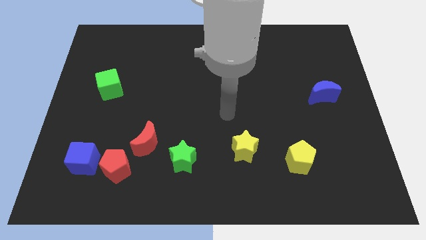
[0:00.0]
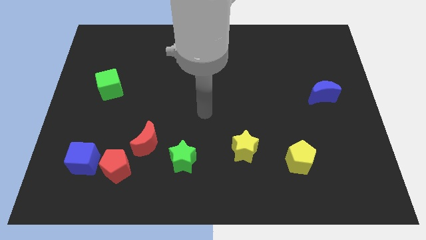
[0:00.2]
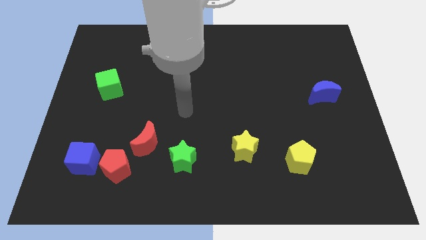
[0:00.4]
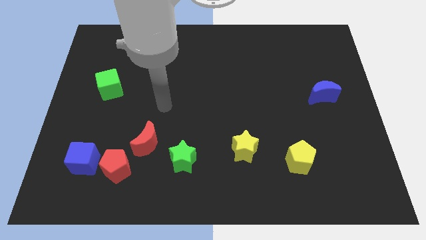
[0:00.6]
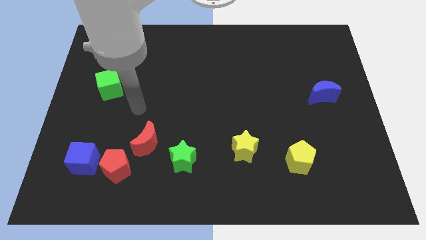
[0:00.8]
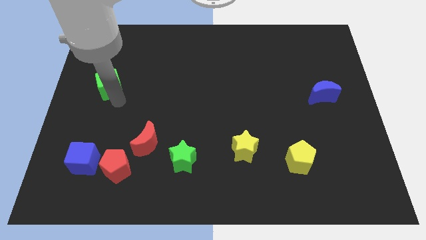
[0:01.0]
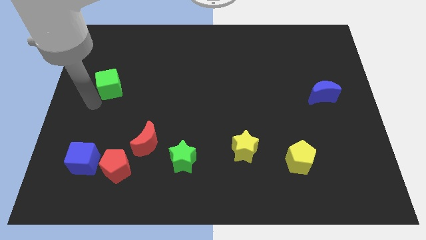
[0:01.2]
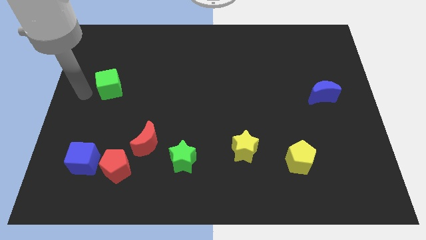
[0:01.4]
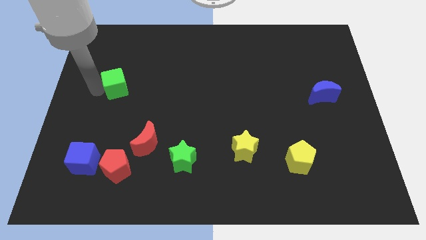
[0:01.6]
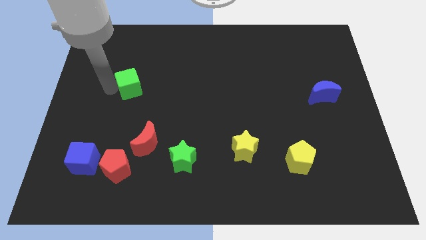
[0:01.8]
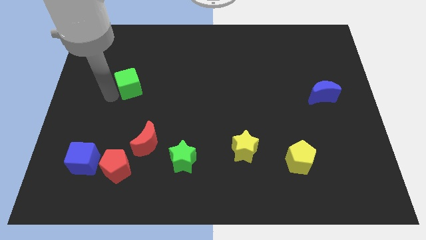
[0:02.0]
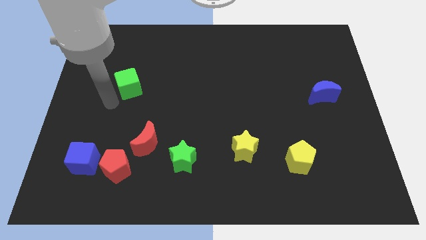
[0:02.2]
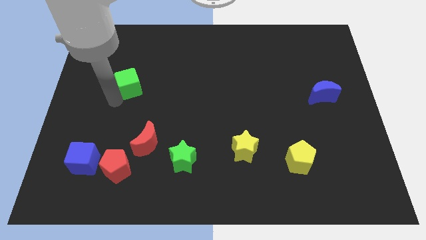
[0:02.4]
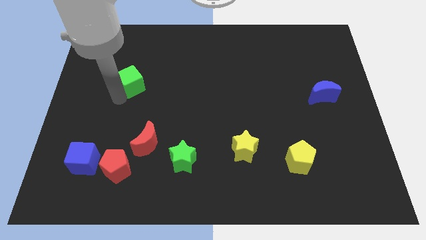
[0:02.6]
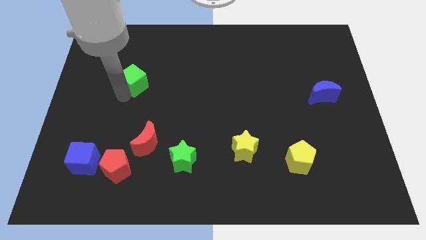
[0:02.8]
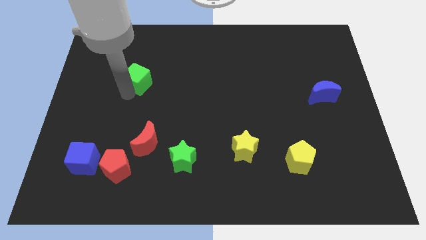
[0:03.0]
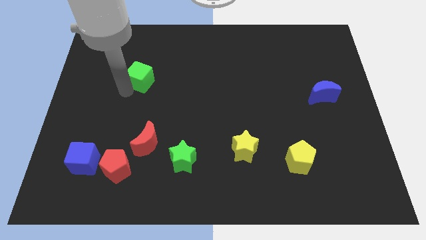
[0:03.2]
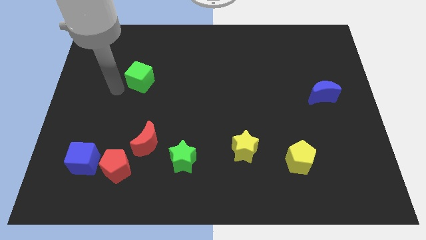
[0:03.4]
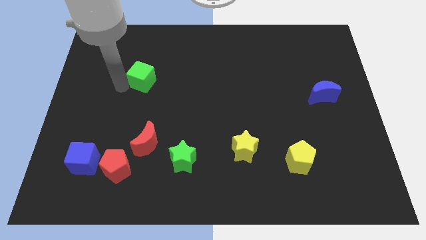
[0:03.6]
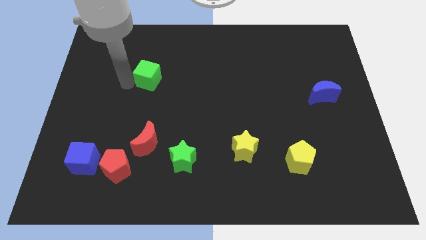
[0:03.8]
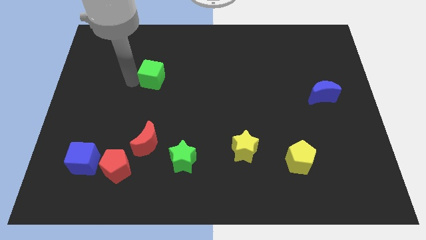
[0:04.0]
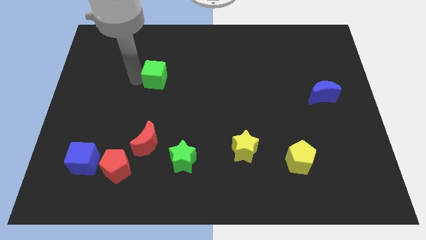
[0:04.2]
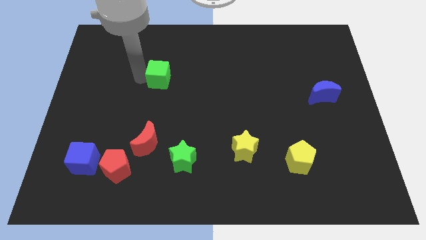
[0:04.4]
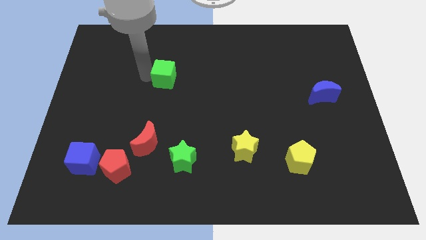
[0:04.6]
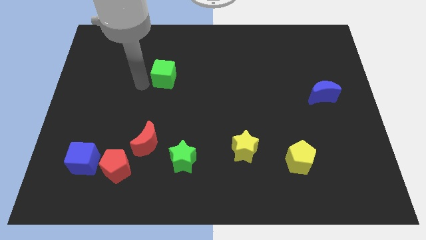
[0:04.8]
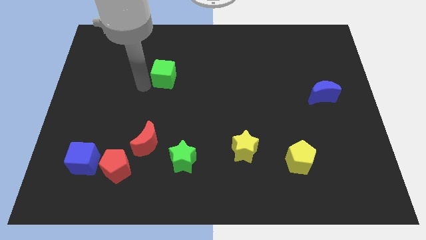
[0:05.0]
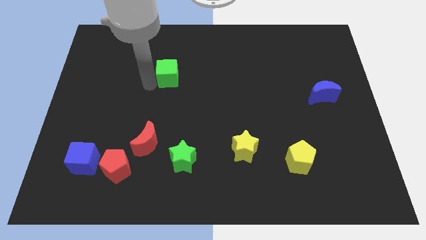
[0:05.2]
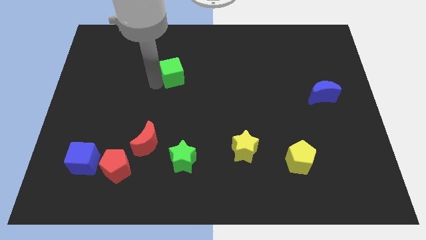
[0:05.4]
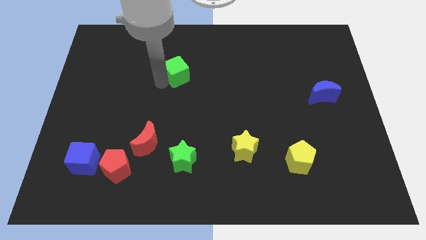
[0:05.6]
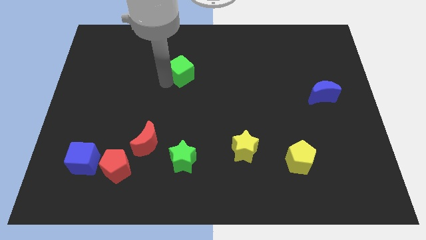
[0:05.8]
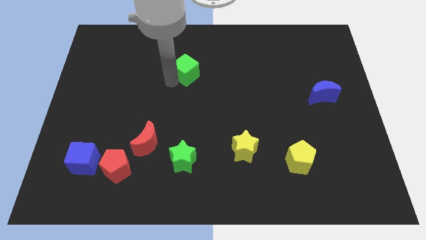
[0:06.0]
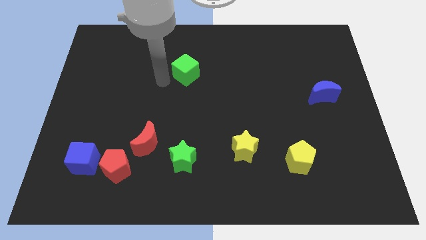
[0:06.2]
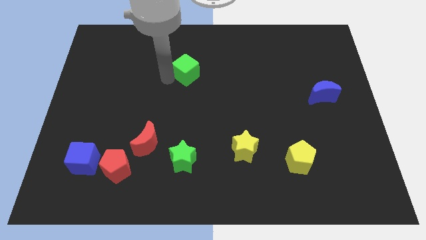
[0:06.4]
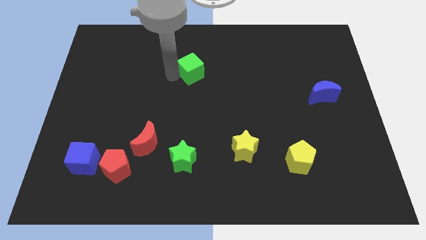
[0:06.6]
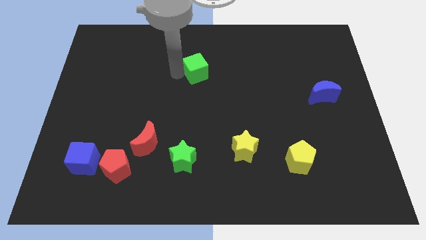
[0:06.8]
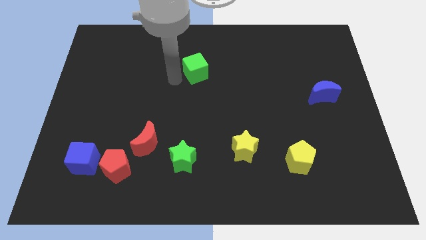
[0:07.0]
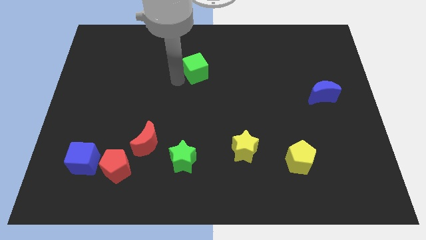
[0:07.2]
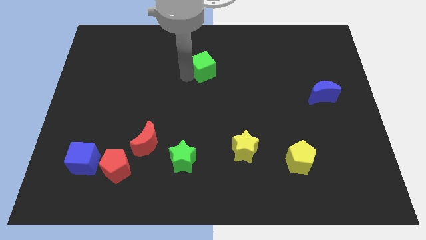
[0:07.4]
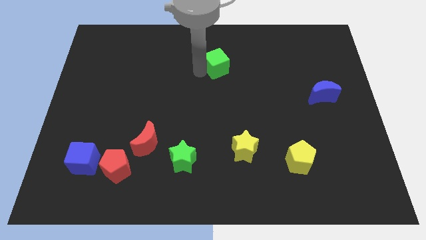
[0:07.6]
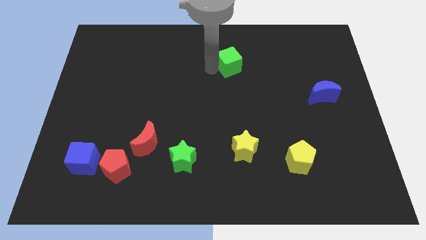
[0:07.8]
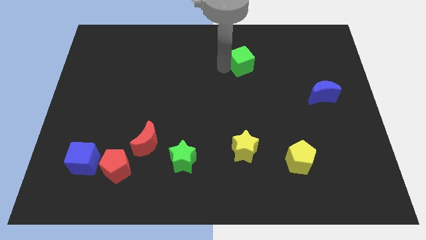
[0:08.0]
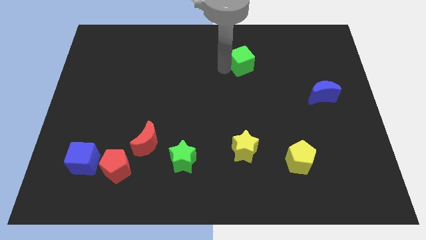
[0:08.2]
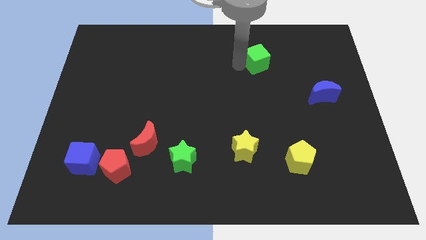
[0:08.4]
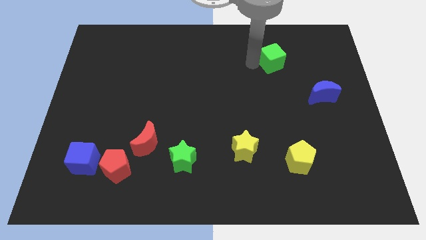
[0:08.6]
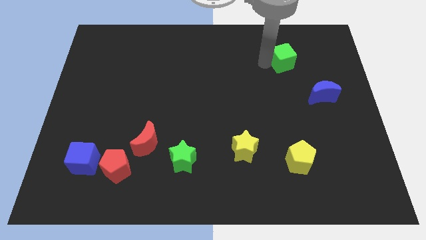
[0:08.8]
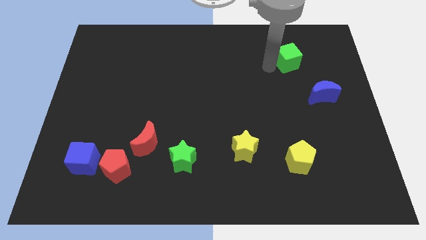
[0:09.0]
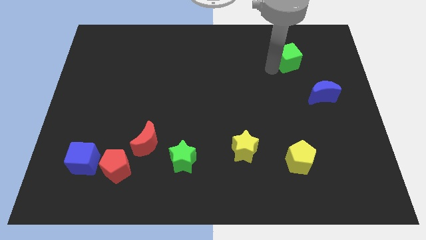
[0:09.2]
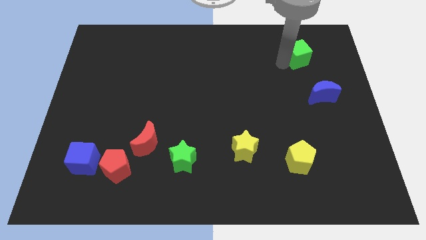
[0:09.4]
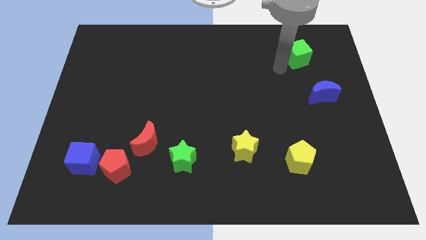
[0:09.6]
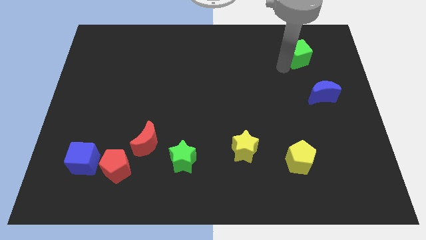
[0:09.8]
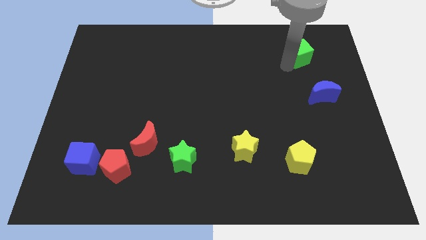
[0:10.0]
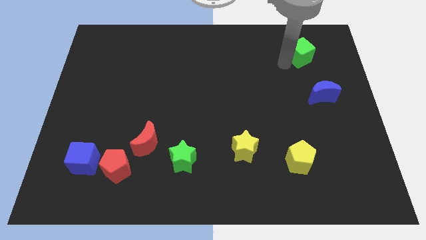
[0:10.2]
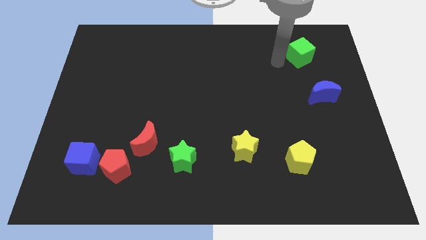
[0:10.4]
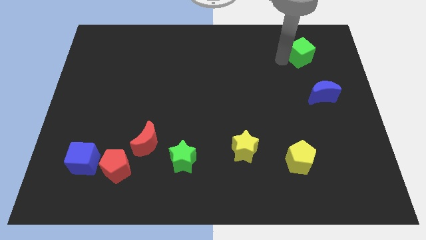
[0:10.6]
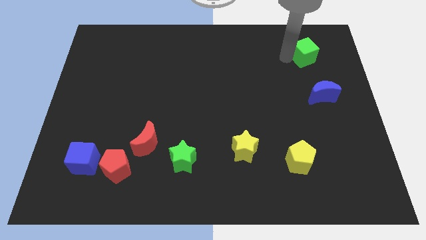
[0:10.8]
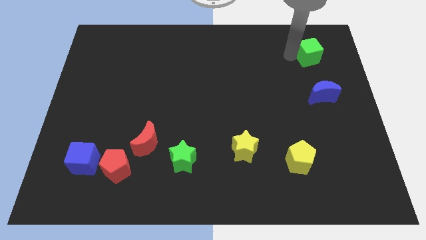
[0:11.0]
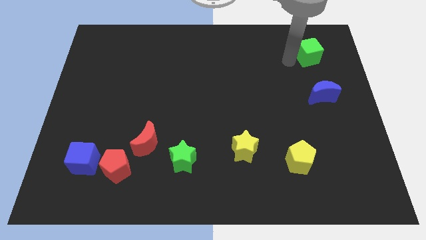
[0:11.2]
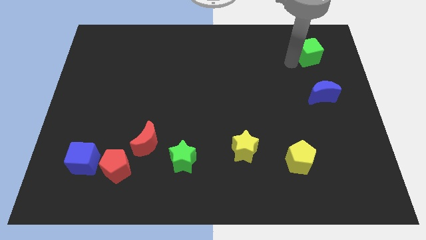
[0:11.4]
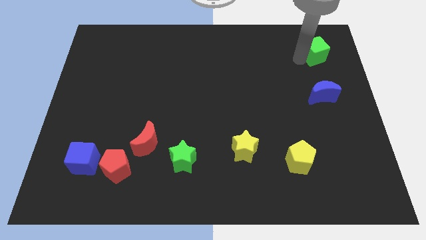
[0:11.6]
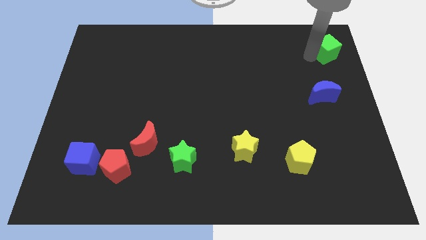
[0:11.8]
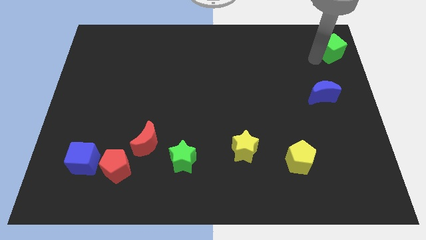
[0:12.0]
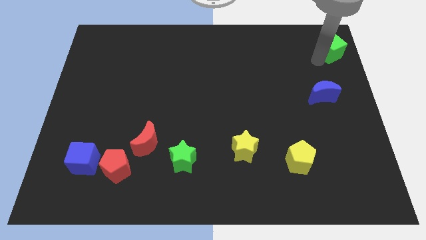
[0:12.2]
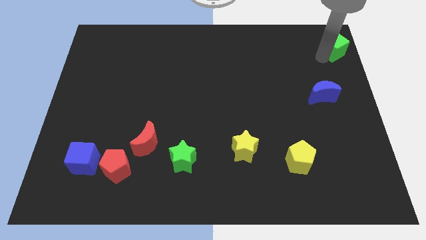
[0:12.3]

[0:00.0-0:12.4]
push the green cube to the top right
